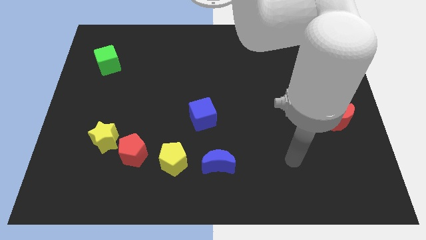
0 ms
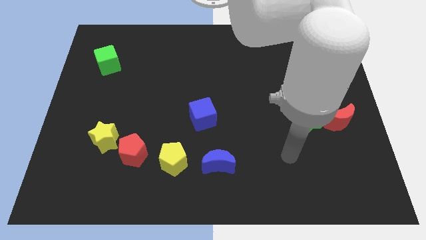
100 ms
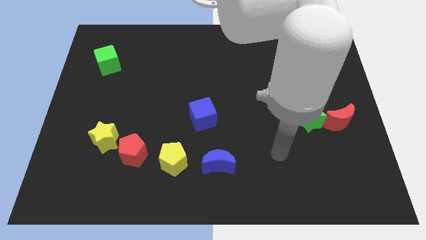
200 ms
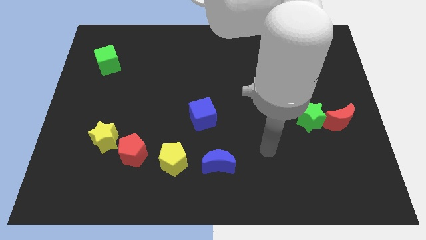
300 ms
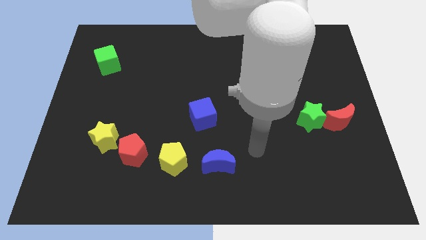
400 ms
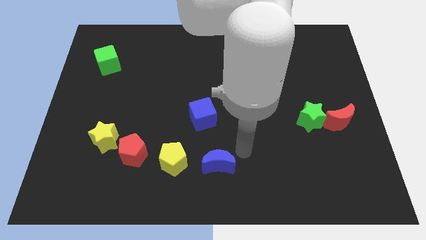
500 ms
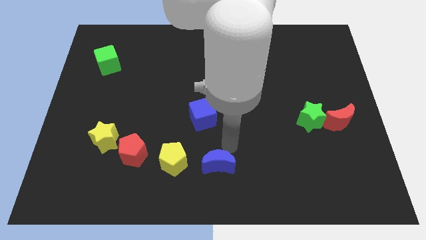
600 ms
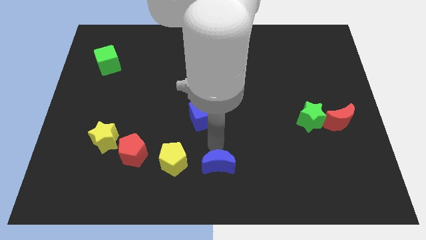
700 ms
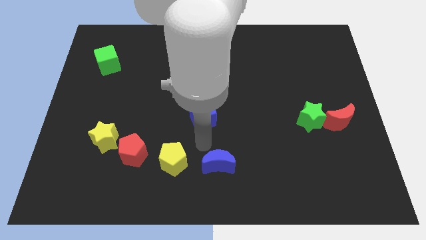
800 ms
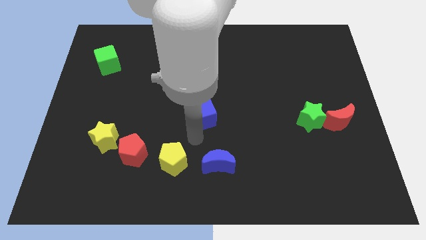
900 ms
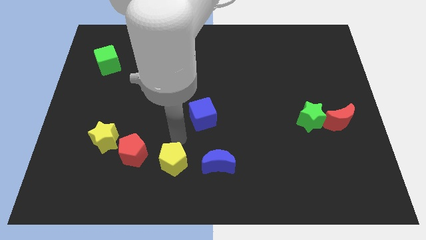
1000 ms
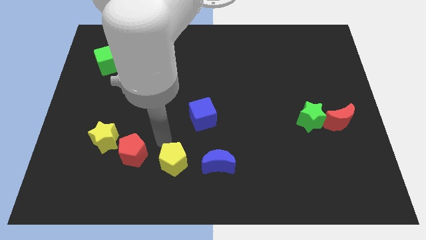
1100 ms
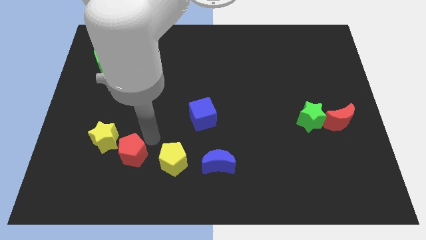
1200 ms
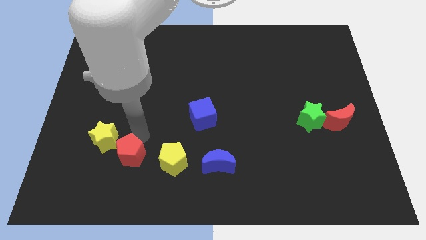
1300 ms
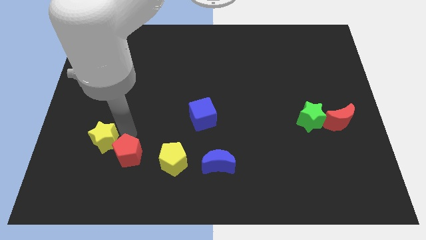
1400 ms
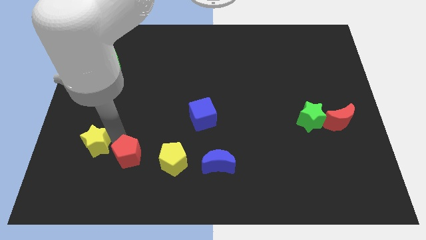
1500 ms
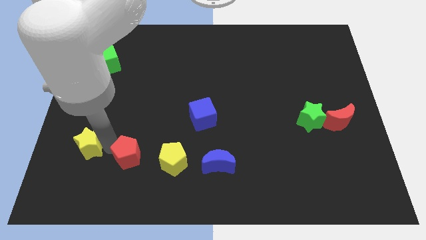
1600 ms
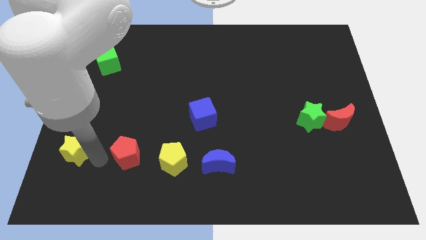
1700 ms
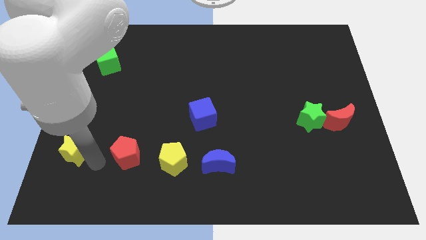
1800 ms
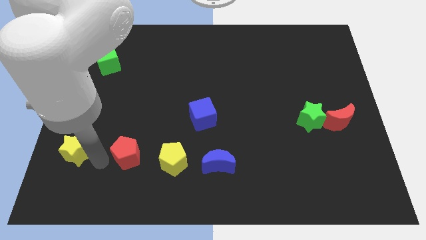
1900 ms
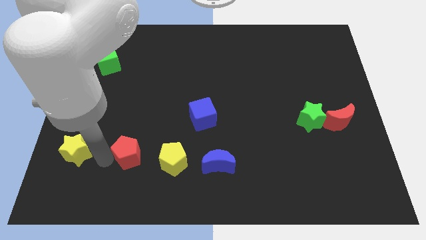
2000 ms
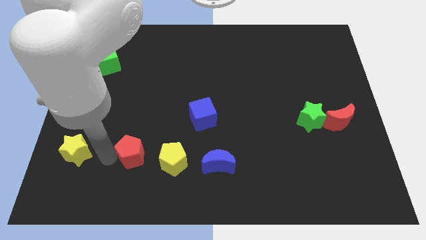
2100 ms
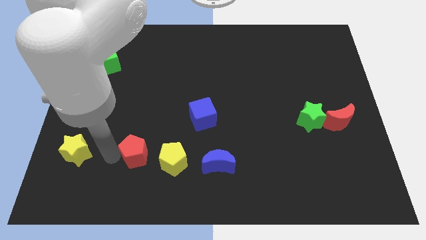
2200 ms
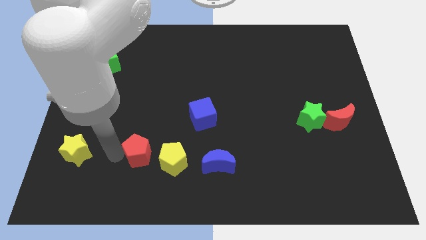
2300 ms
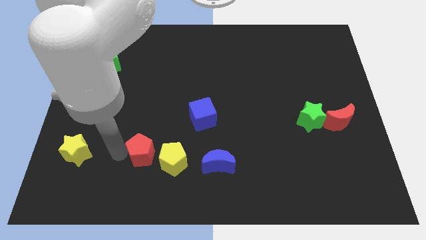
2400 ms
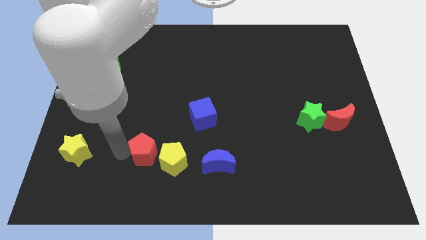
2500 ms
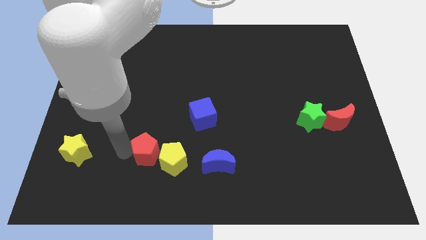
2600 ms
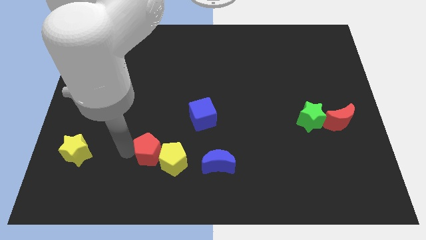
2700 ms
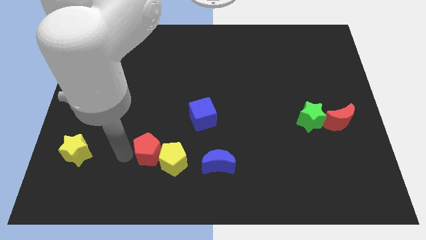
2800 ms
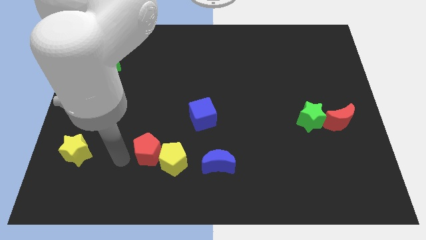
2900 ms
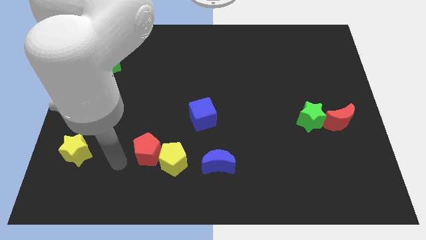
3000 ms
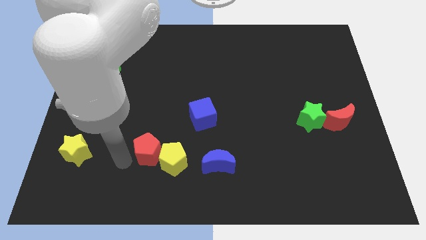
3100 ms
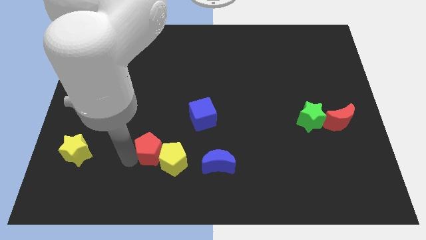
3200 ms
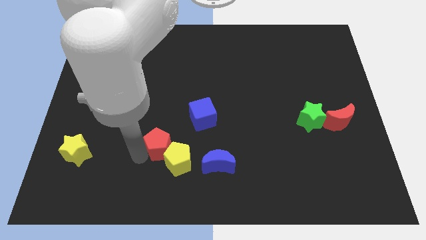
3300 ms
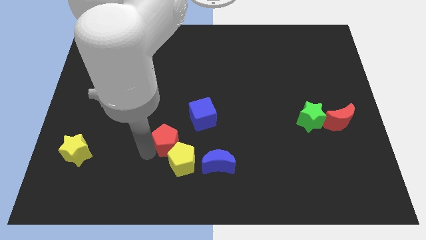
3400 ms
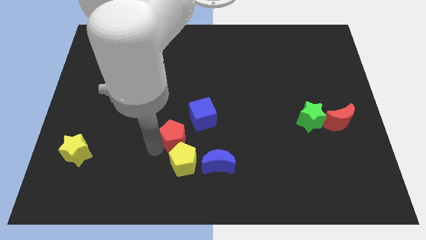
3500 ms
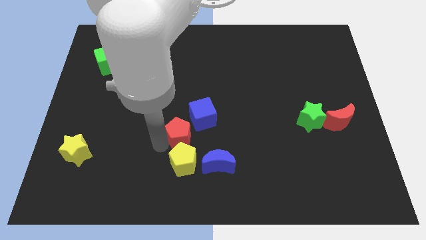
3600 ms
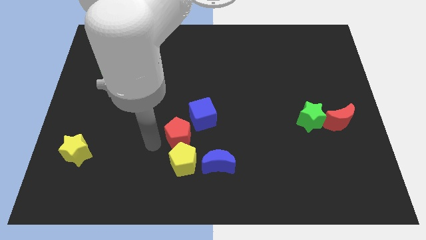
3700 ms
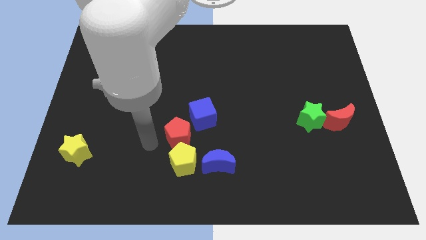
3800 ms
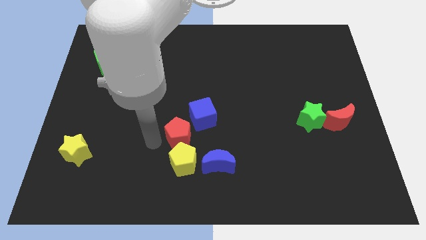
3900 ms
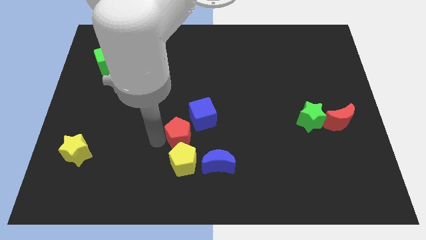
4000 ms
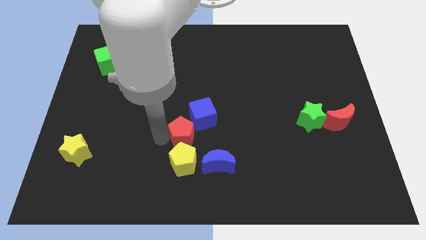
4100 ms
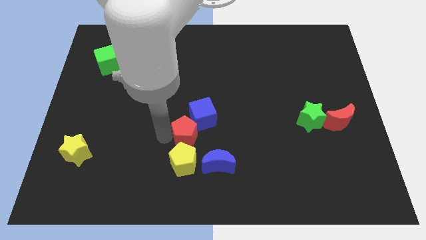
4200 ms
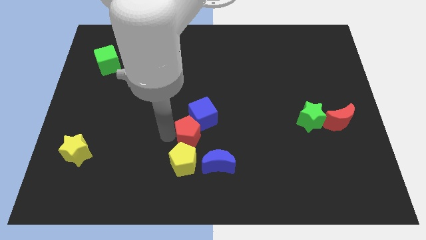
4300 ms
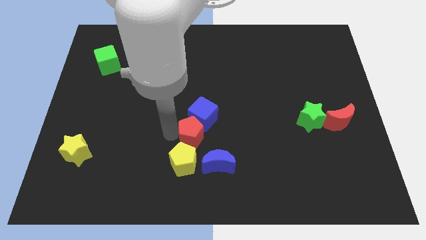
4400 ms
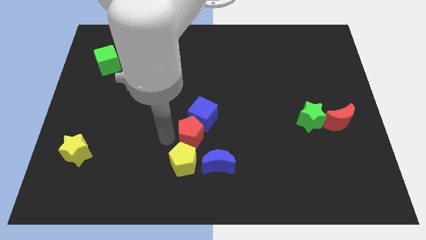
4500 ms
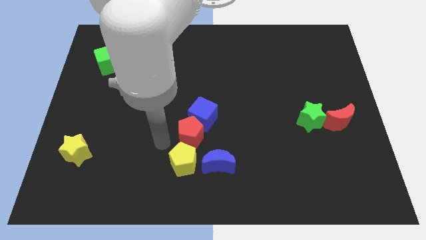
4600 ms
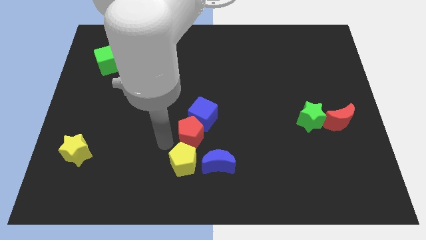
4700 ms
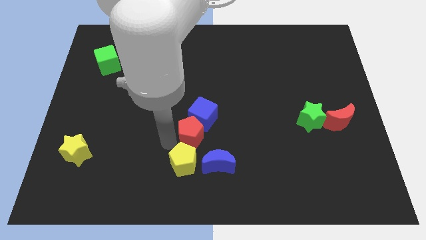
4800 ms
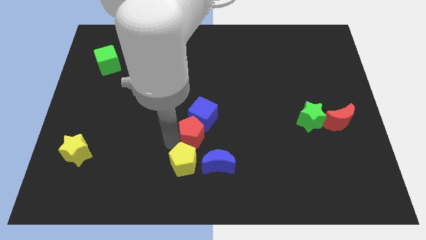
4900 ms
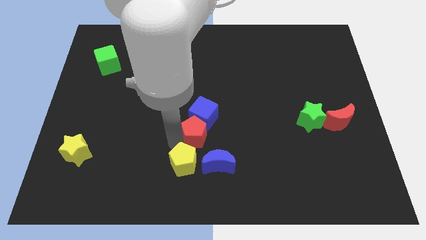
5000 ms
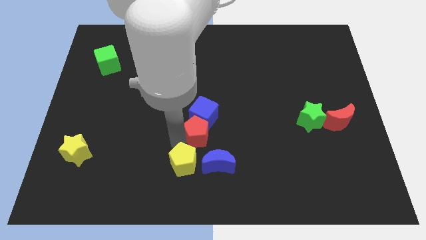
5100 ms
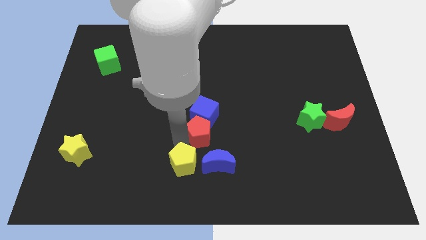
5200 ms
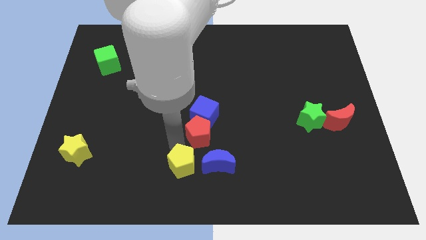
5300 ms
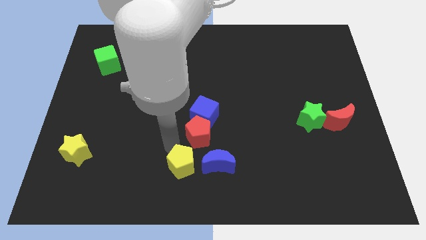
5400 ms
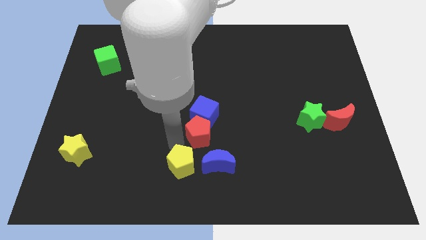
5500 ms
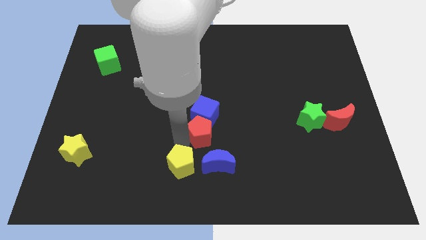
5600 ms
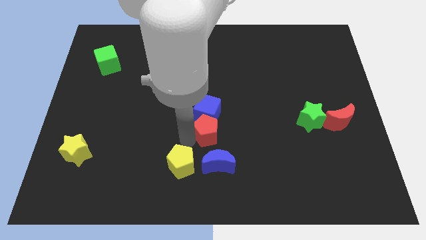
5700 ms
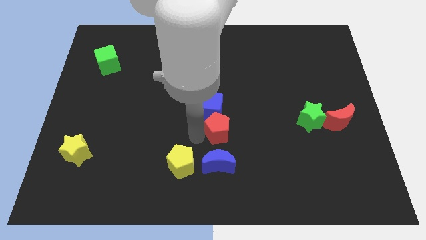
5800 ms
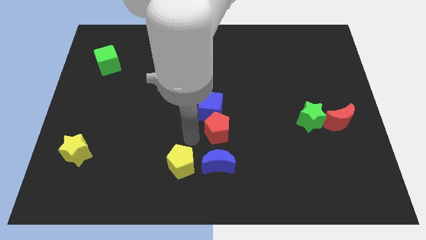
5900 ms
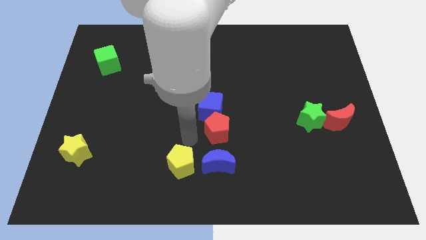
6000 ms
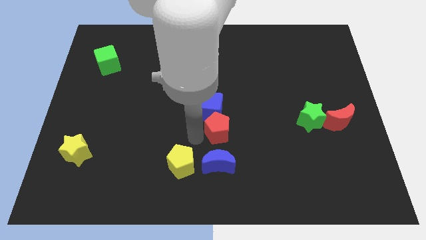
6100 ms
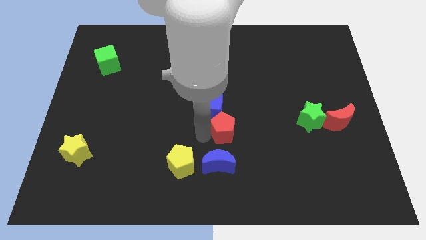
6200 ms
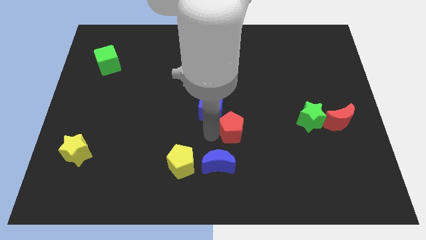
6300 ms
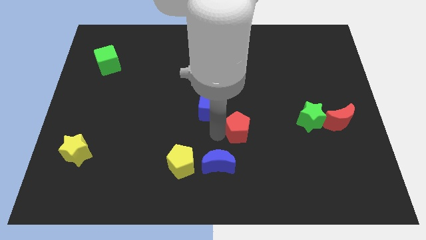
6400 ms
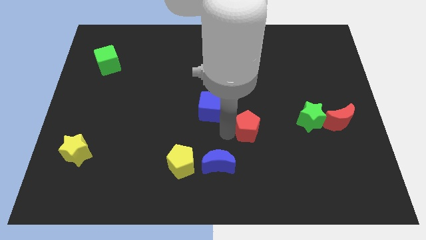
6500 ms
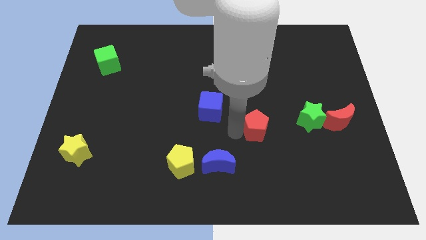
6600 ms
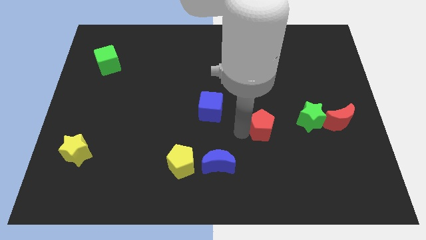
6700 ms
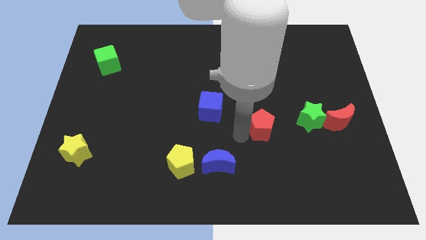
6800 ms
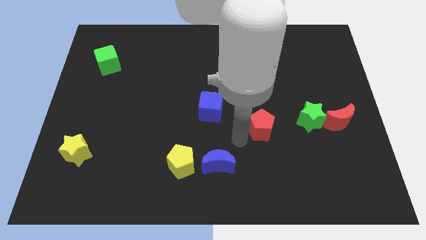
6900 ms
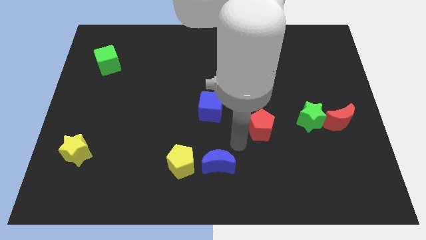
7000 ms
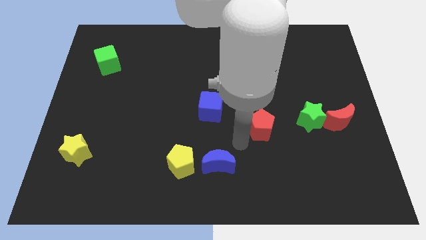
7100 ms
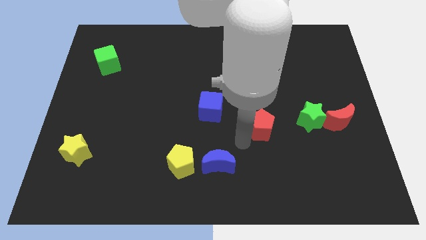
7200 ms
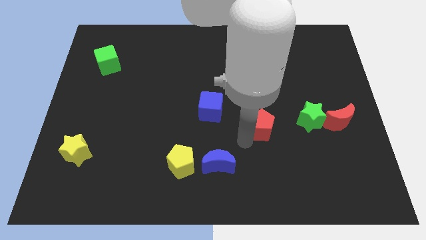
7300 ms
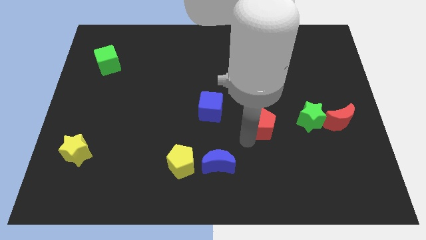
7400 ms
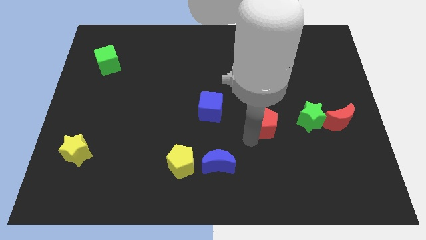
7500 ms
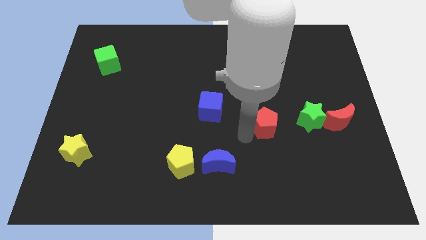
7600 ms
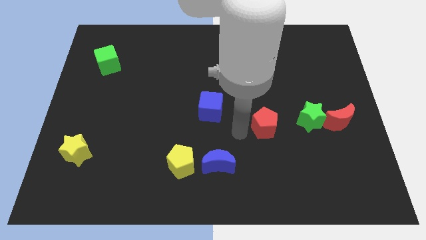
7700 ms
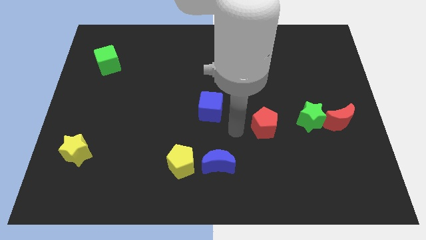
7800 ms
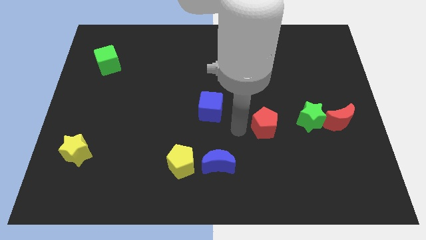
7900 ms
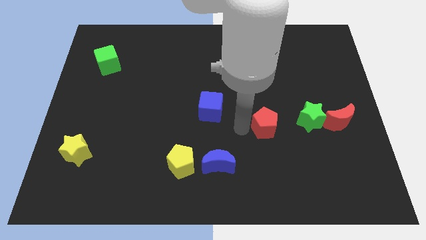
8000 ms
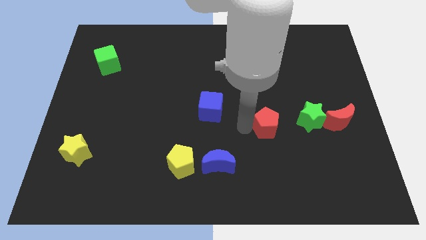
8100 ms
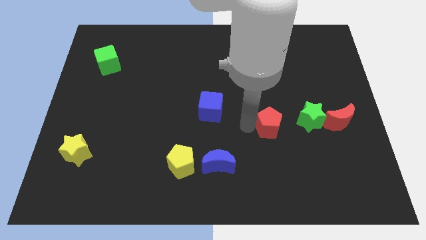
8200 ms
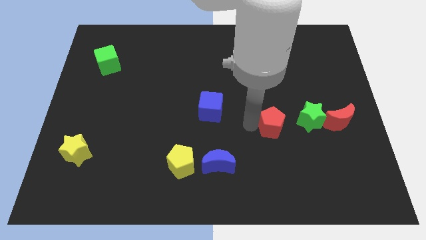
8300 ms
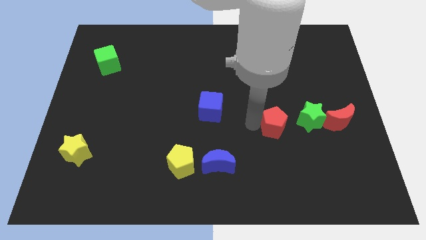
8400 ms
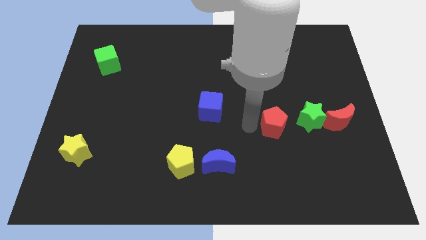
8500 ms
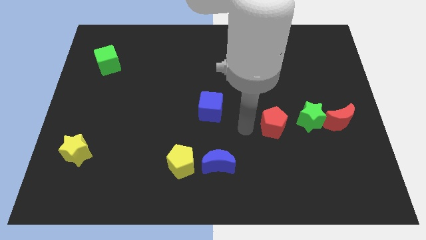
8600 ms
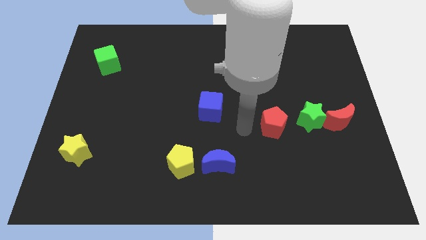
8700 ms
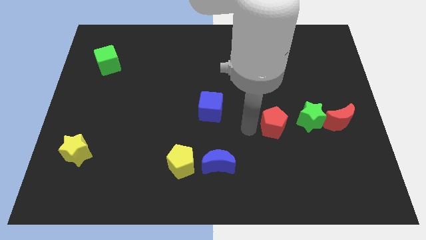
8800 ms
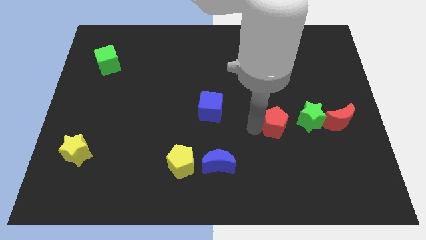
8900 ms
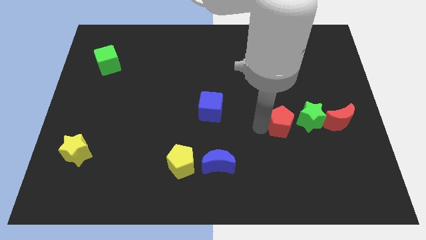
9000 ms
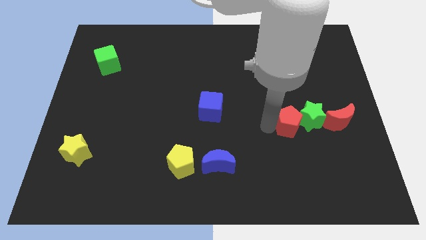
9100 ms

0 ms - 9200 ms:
slide the red pentagon towards the green star
